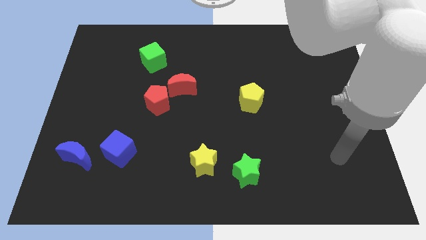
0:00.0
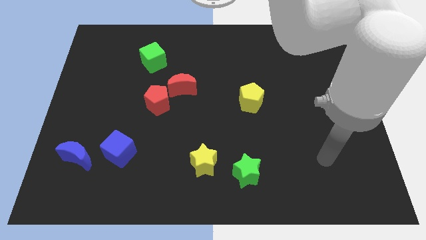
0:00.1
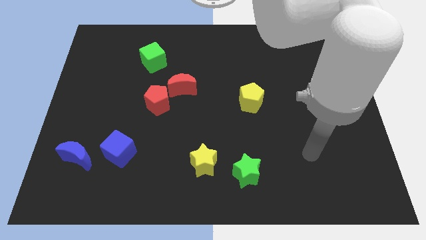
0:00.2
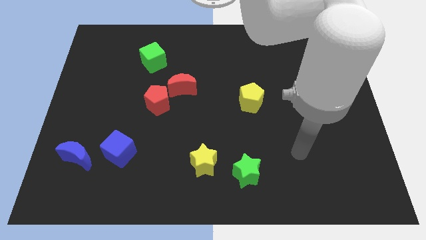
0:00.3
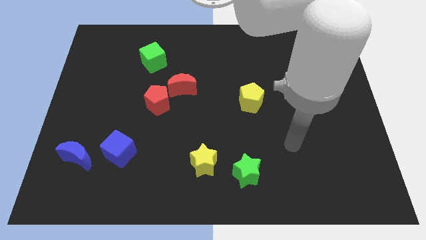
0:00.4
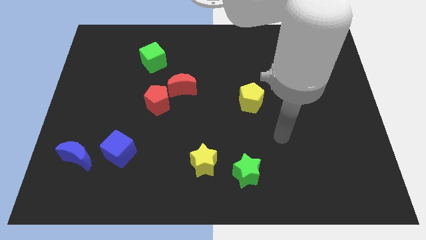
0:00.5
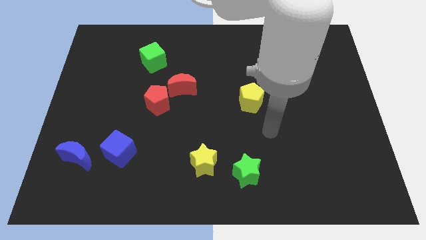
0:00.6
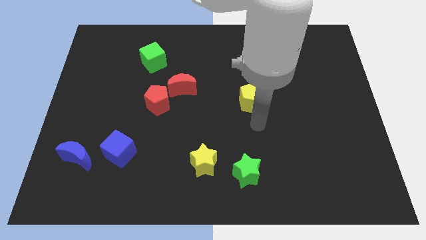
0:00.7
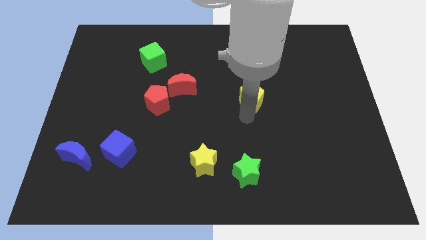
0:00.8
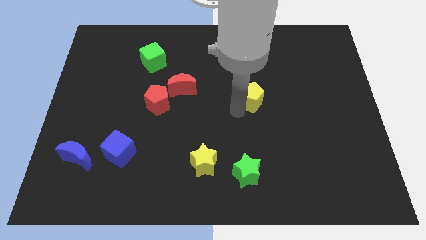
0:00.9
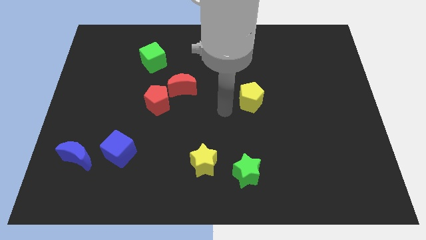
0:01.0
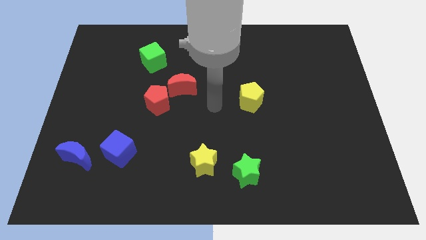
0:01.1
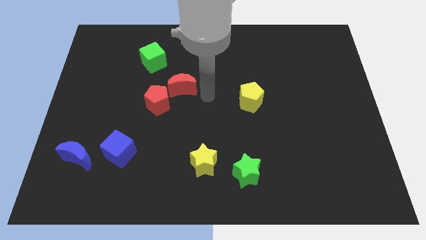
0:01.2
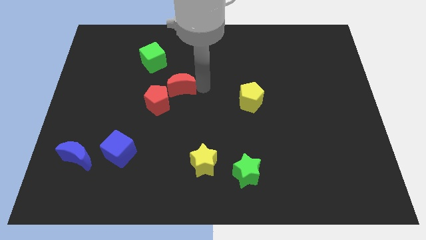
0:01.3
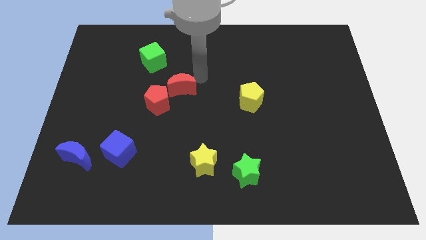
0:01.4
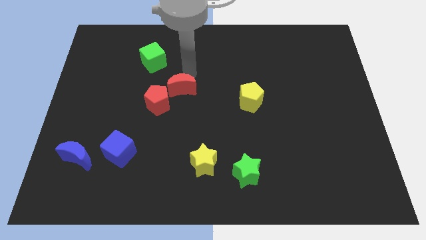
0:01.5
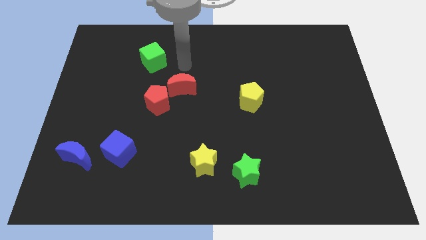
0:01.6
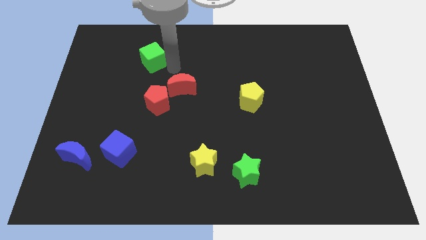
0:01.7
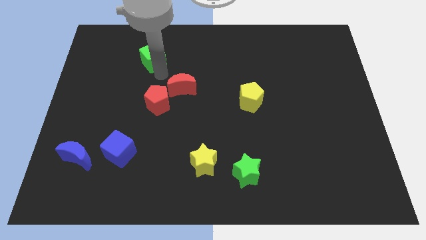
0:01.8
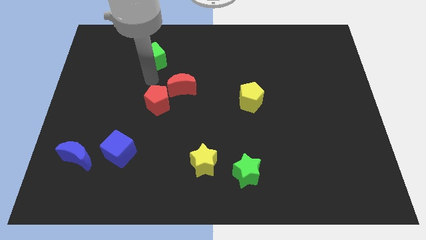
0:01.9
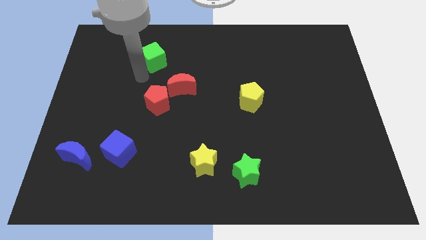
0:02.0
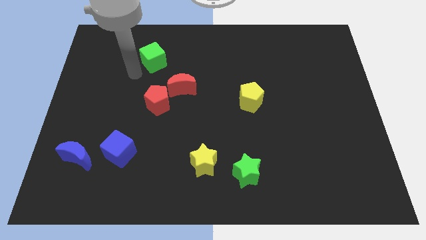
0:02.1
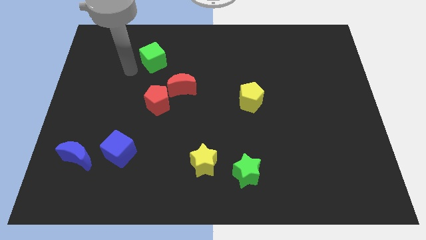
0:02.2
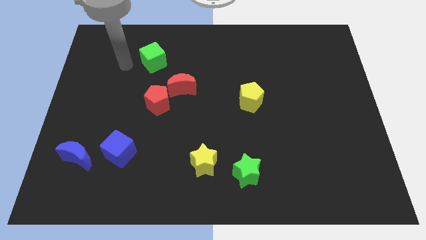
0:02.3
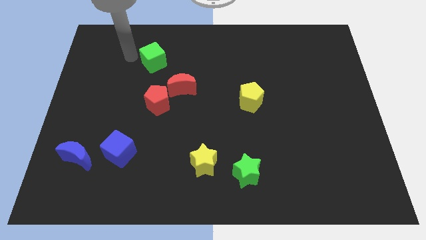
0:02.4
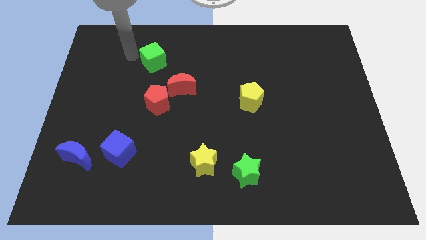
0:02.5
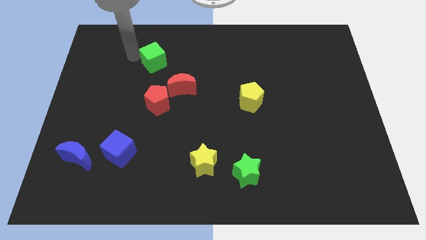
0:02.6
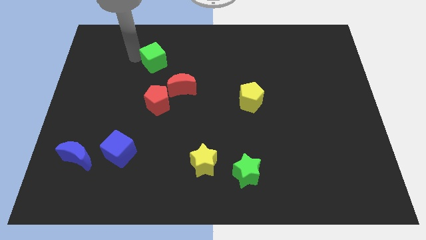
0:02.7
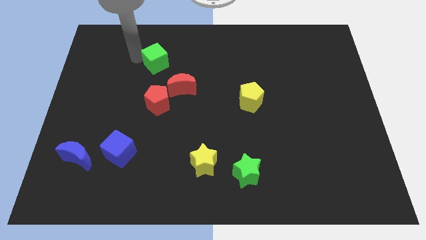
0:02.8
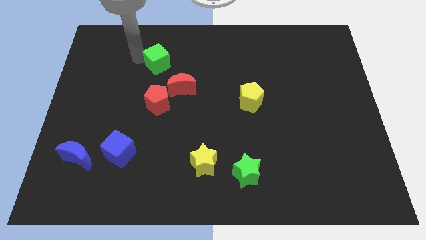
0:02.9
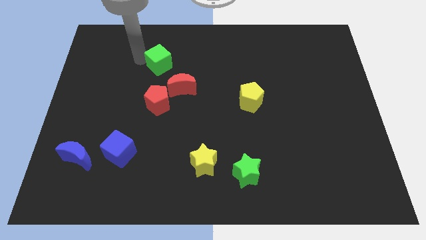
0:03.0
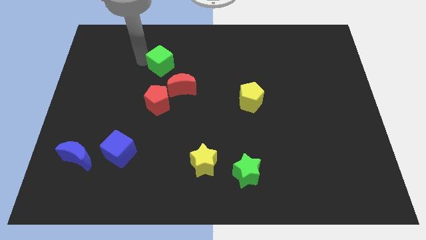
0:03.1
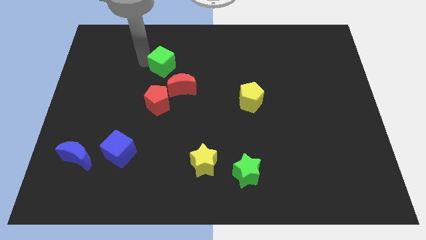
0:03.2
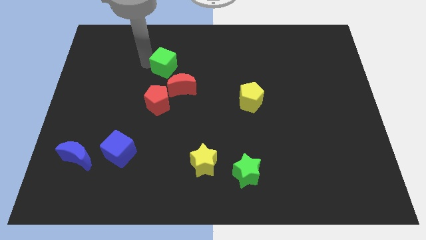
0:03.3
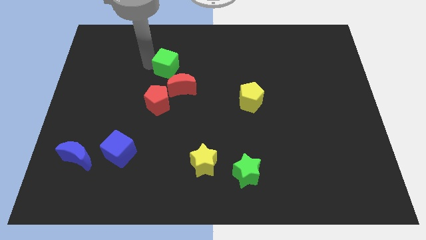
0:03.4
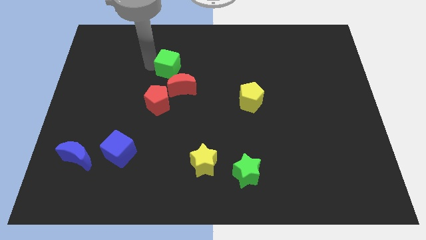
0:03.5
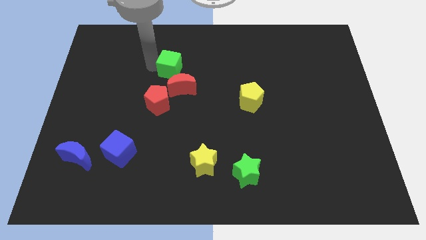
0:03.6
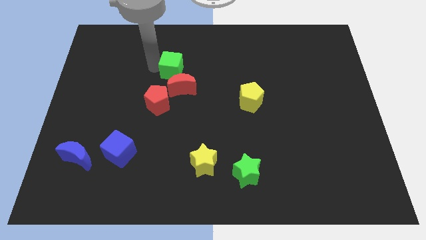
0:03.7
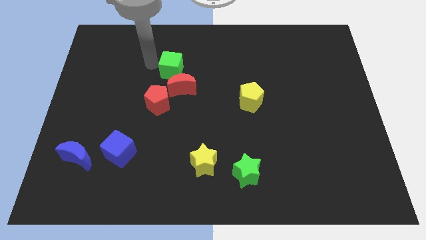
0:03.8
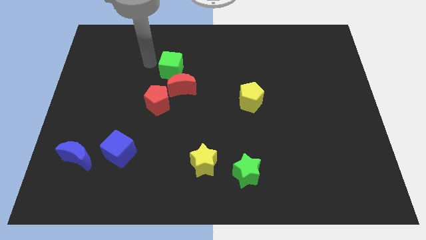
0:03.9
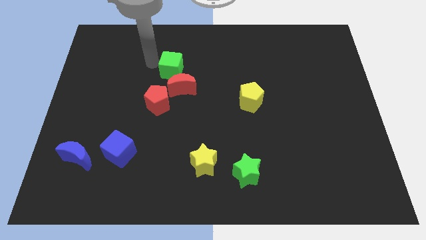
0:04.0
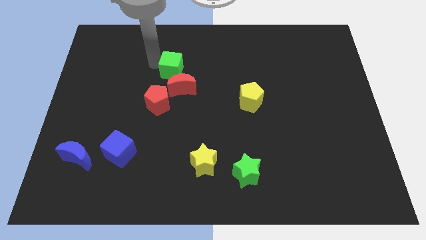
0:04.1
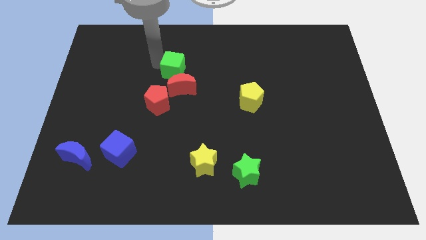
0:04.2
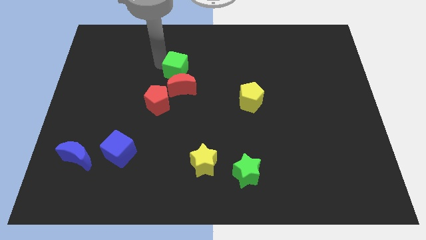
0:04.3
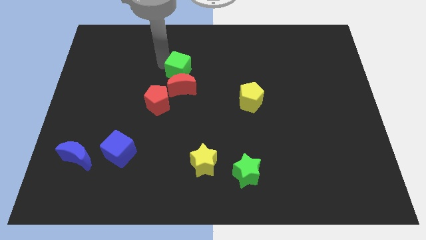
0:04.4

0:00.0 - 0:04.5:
push the green cube a little bit down and right

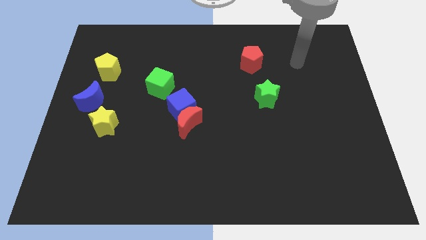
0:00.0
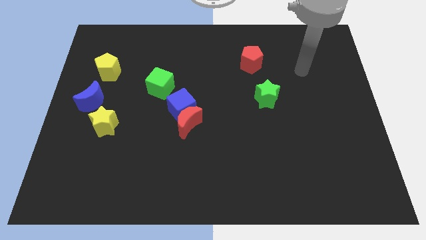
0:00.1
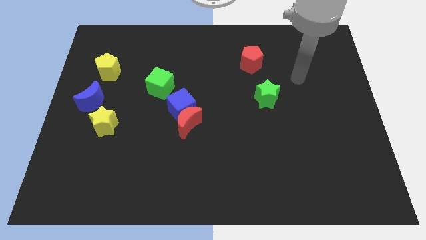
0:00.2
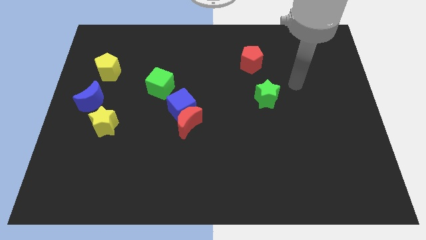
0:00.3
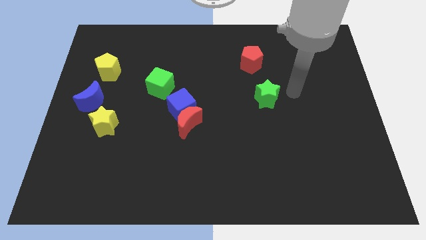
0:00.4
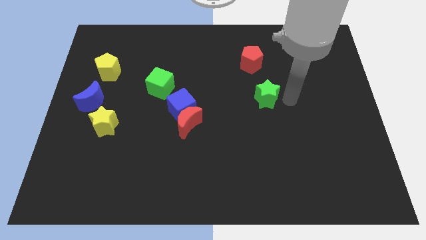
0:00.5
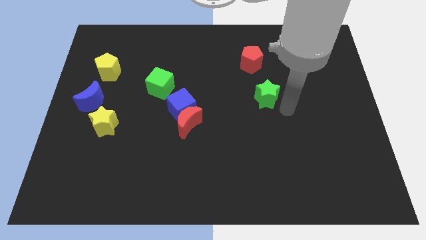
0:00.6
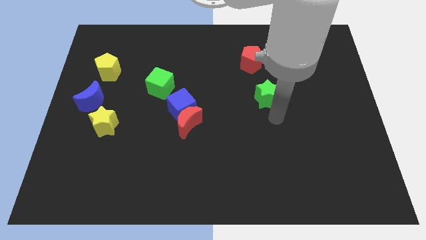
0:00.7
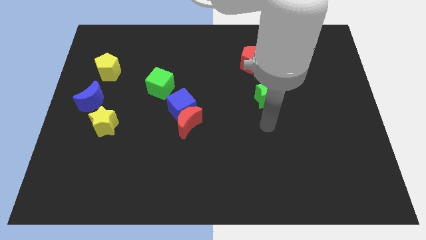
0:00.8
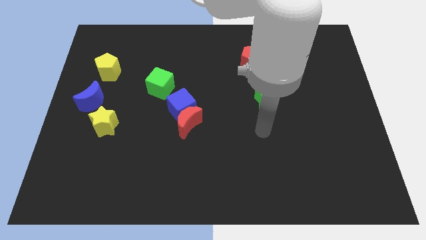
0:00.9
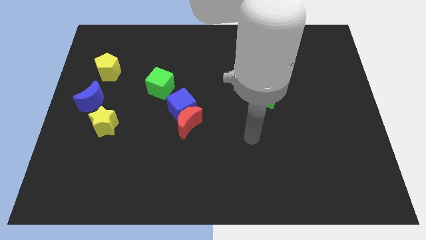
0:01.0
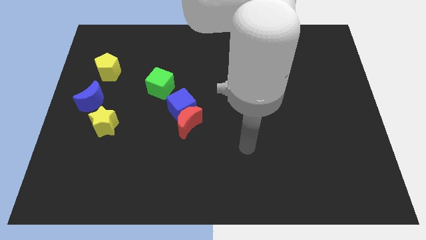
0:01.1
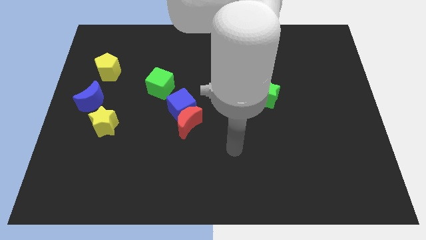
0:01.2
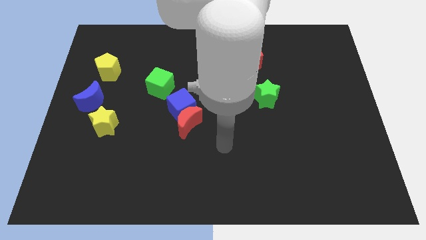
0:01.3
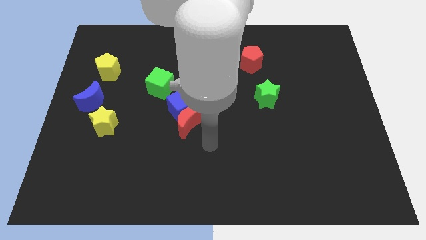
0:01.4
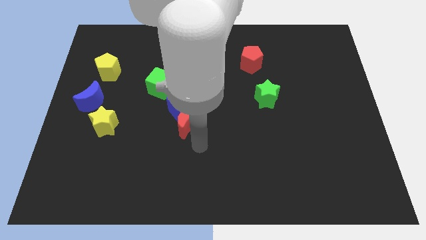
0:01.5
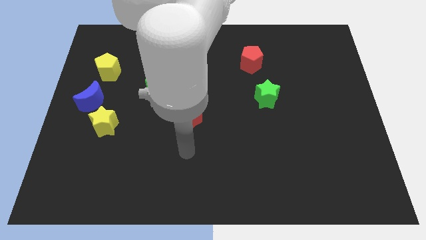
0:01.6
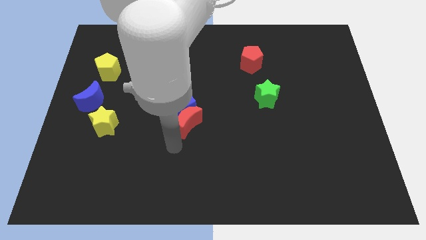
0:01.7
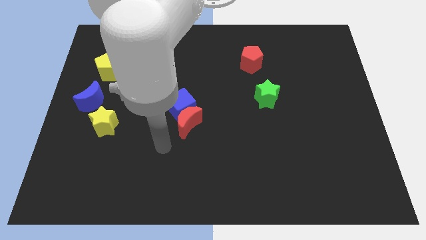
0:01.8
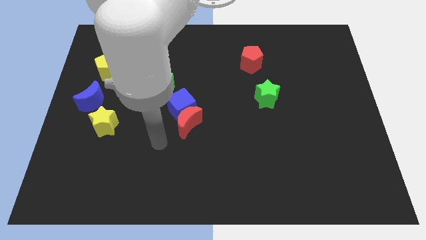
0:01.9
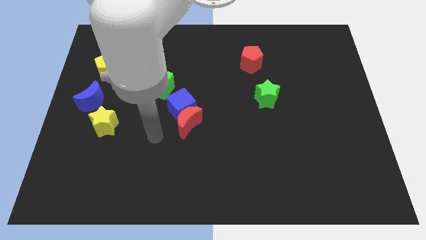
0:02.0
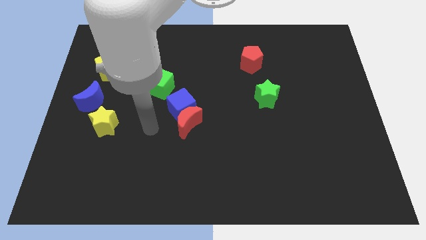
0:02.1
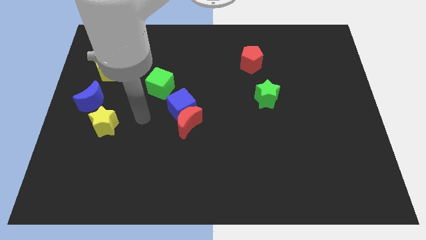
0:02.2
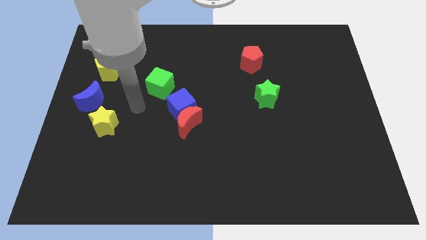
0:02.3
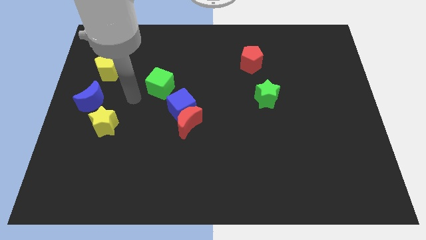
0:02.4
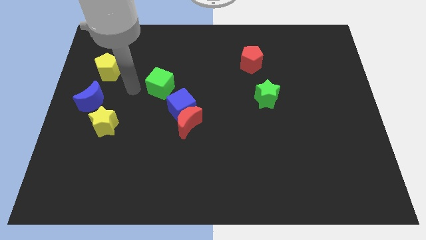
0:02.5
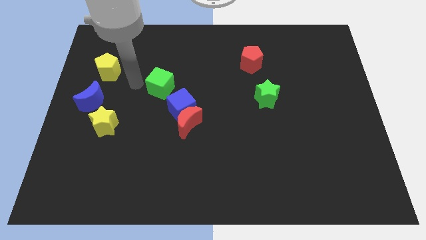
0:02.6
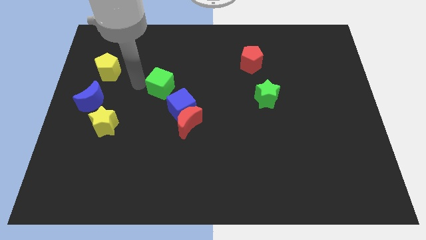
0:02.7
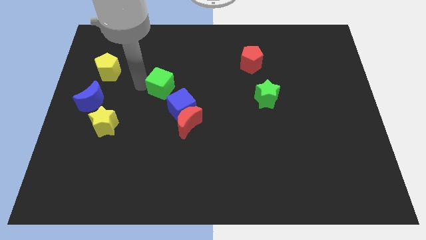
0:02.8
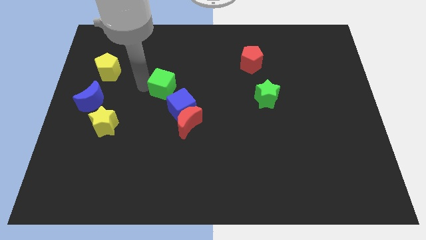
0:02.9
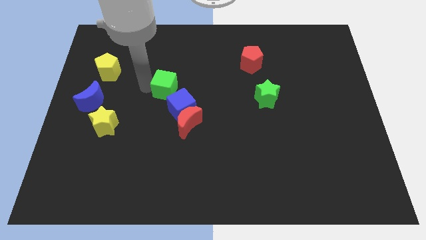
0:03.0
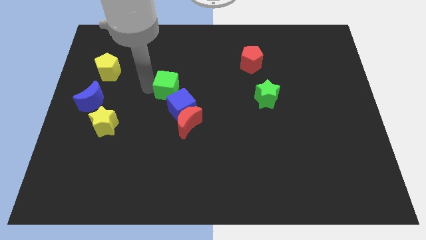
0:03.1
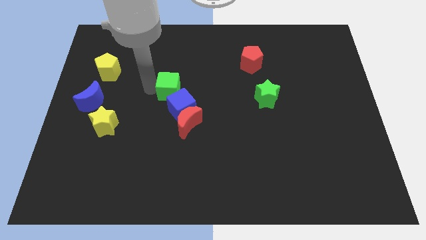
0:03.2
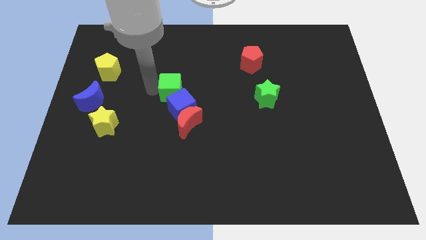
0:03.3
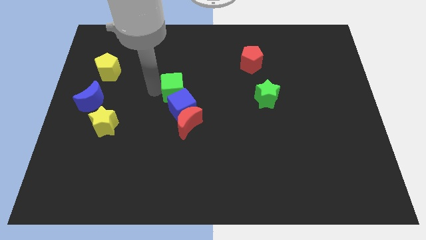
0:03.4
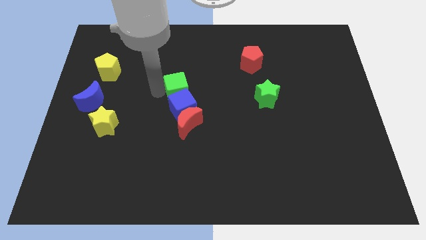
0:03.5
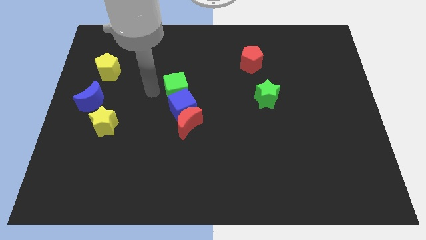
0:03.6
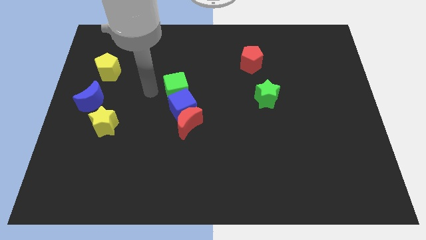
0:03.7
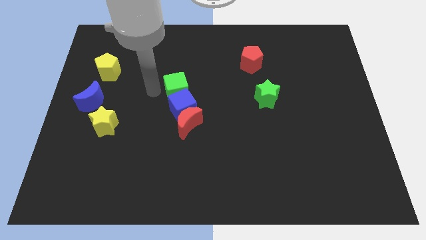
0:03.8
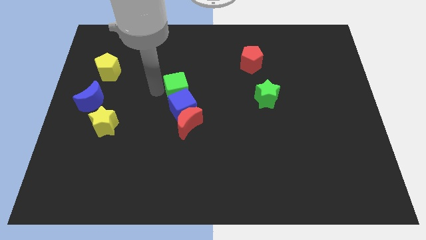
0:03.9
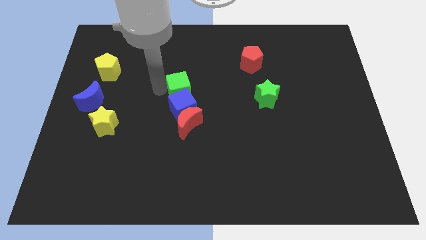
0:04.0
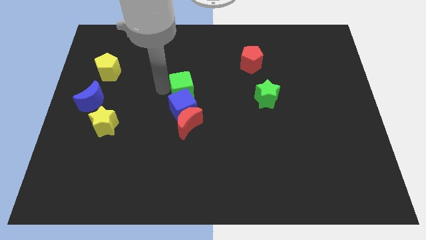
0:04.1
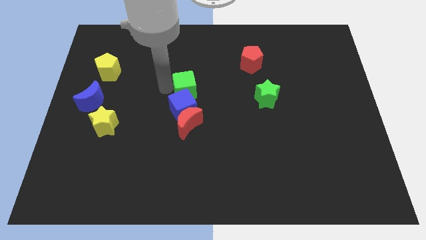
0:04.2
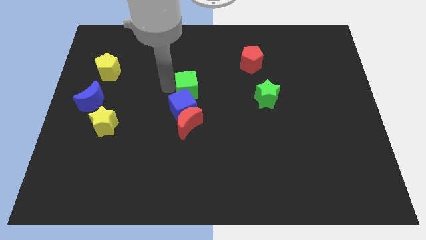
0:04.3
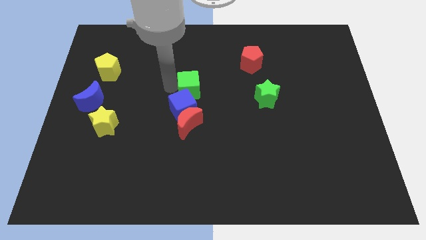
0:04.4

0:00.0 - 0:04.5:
slightly push the green cube right
